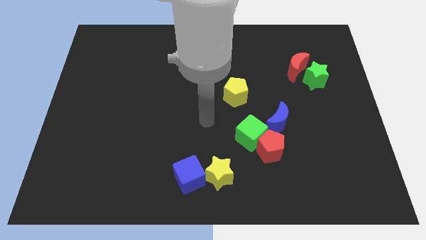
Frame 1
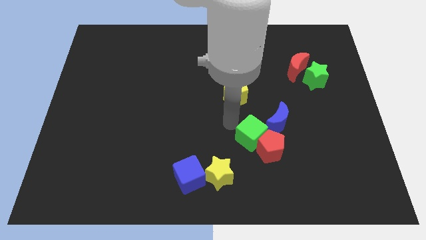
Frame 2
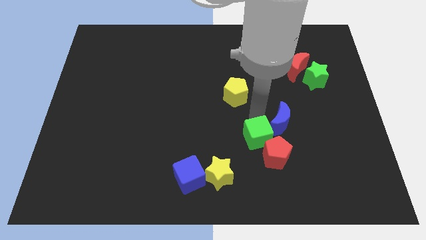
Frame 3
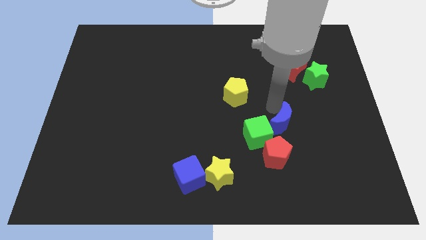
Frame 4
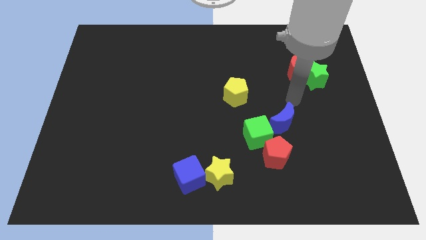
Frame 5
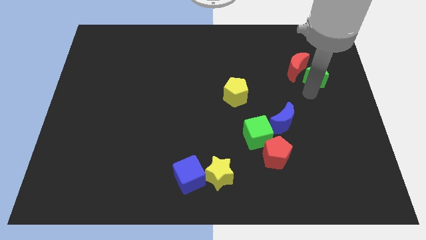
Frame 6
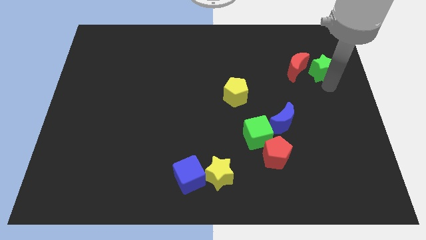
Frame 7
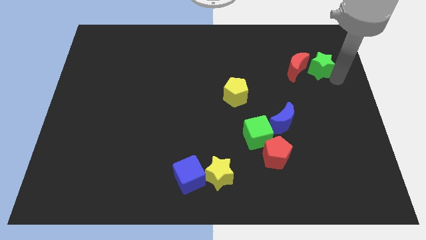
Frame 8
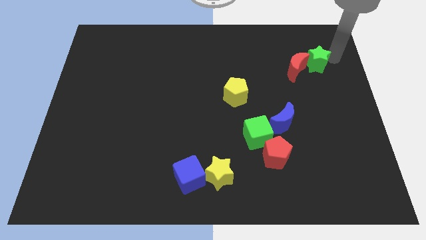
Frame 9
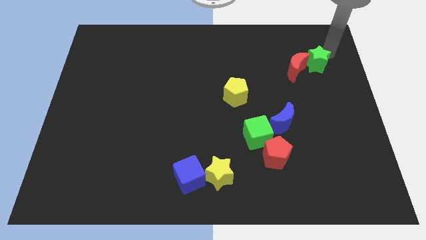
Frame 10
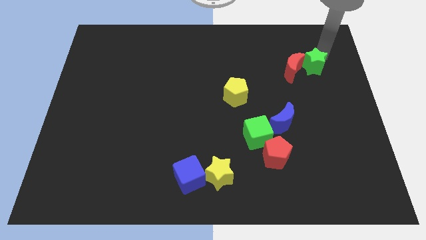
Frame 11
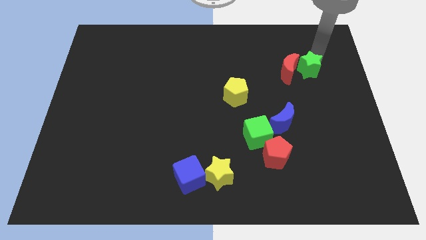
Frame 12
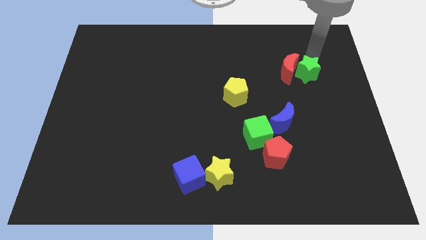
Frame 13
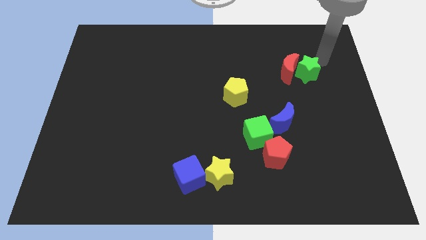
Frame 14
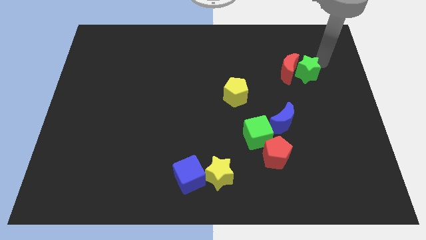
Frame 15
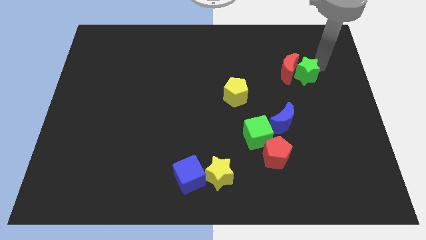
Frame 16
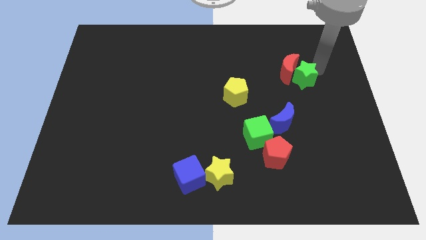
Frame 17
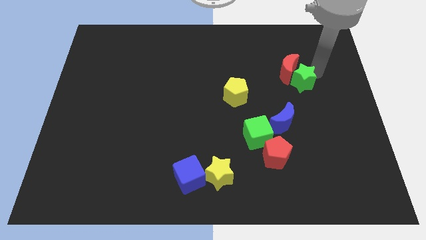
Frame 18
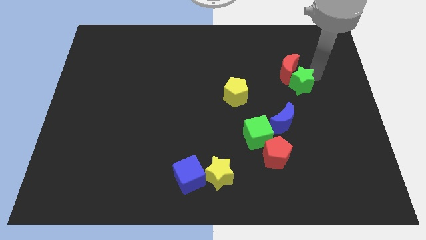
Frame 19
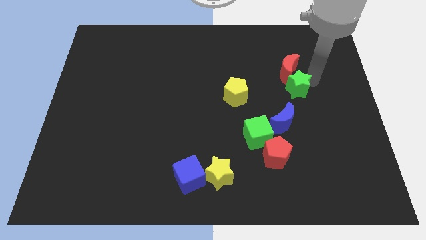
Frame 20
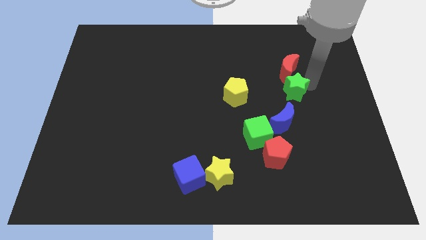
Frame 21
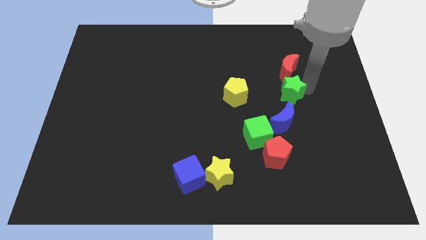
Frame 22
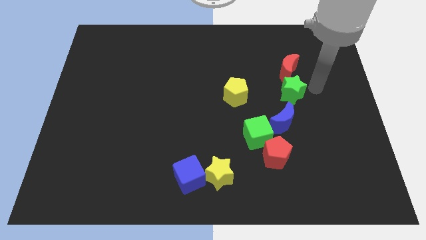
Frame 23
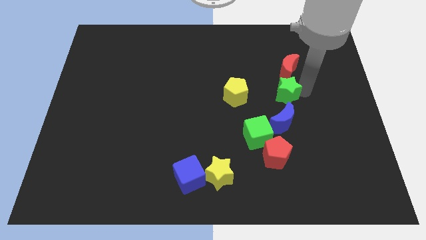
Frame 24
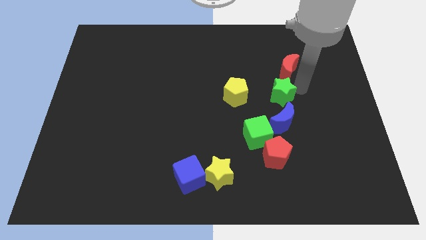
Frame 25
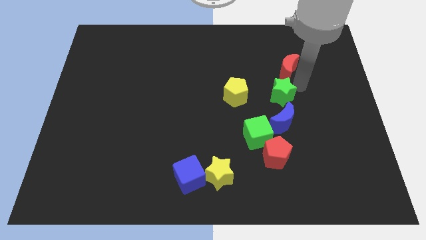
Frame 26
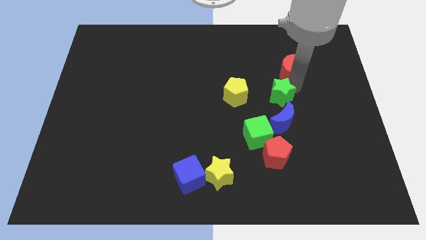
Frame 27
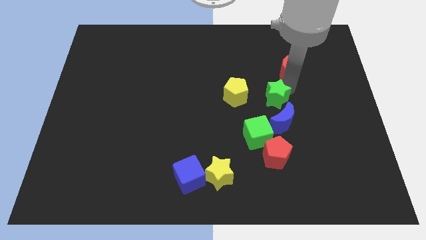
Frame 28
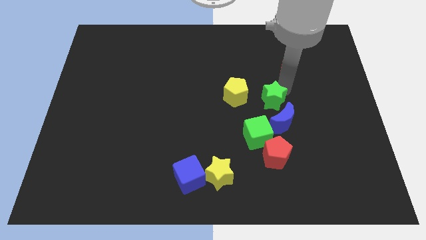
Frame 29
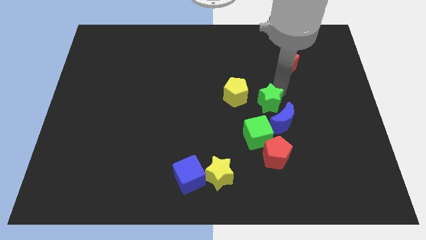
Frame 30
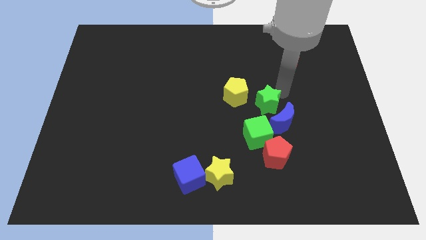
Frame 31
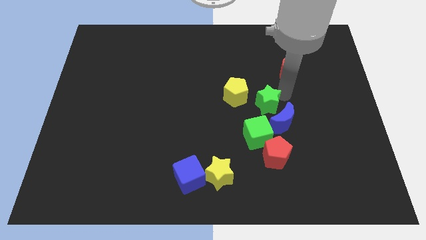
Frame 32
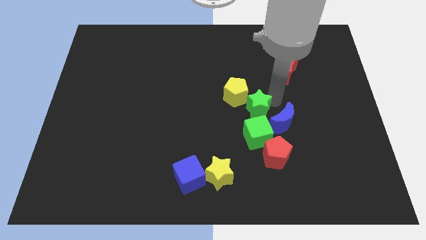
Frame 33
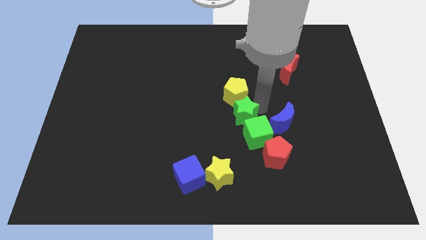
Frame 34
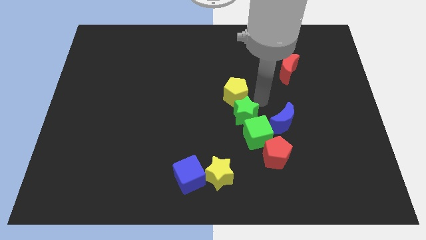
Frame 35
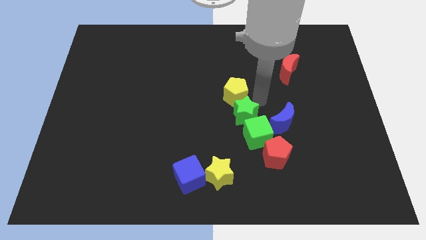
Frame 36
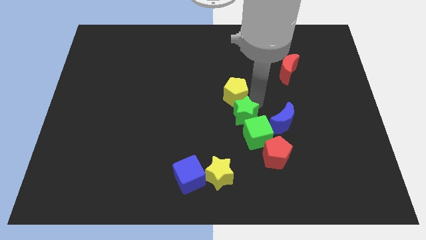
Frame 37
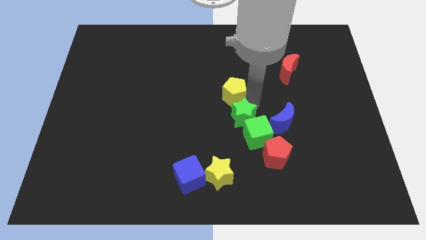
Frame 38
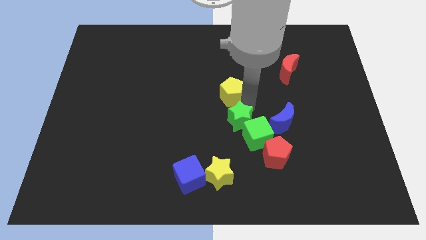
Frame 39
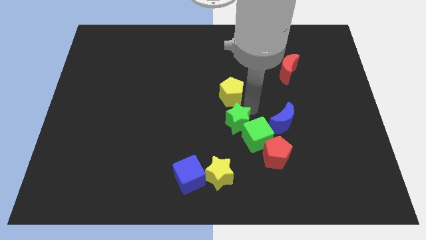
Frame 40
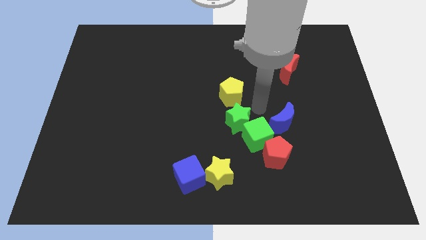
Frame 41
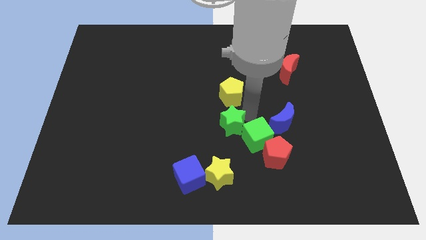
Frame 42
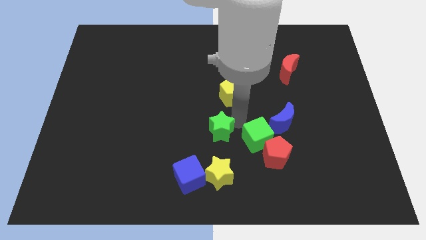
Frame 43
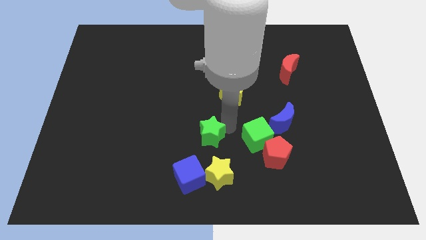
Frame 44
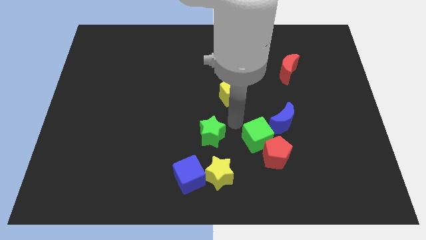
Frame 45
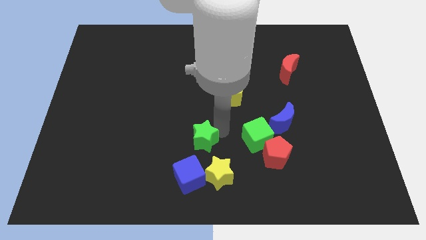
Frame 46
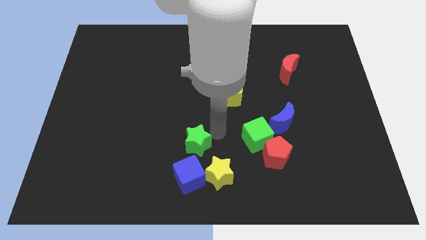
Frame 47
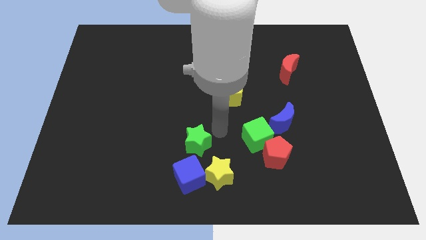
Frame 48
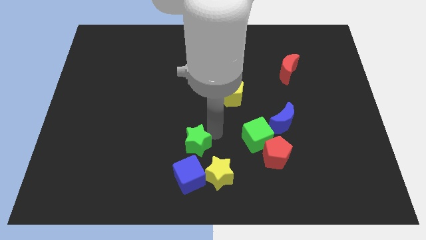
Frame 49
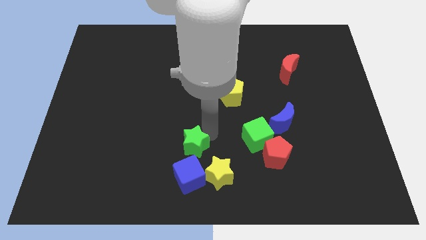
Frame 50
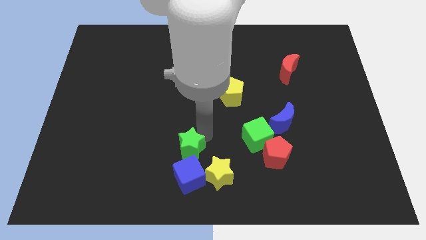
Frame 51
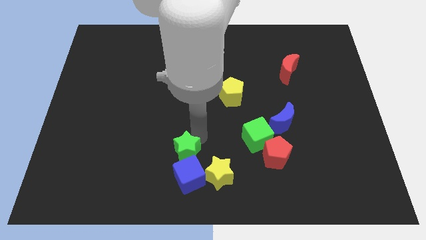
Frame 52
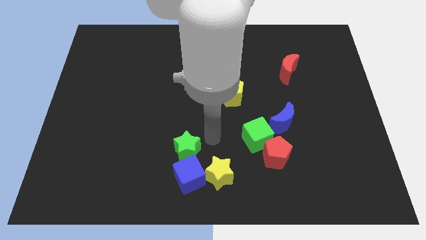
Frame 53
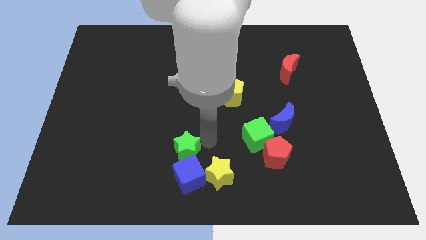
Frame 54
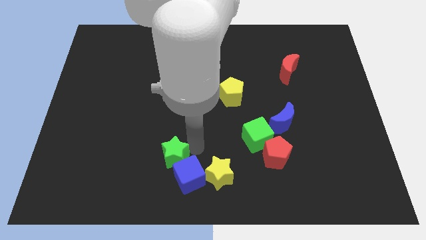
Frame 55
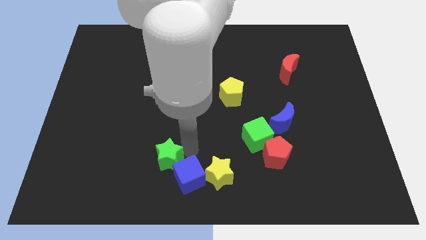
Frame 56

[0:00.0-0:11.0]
put the green star just left of the blue cube

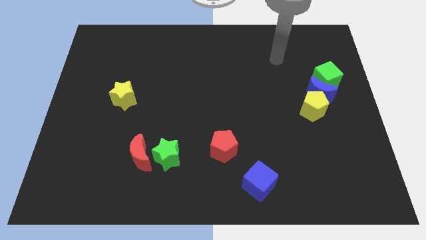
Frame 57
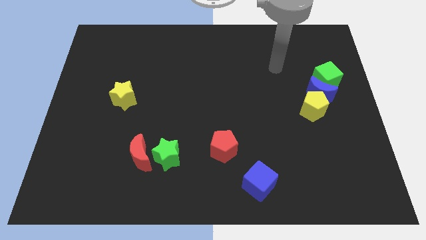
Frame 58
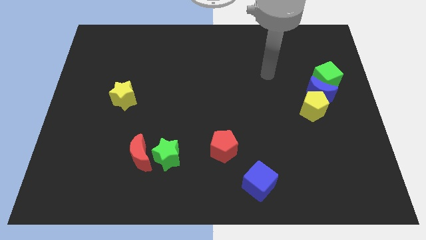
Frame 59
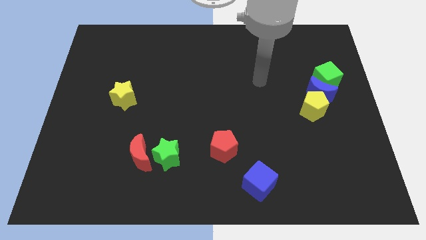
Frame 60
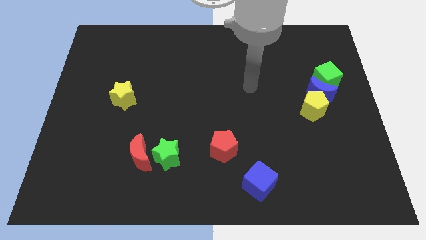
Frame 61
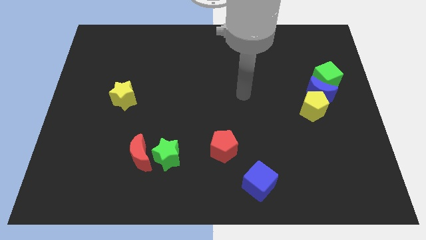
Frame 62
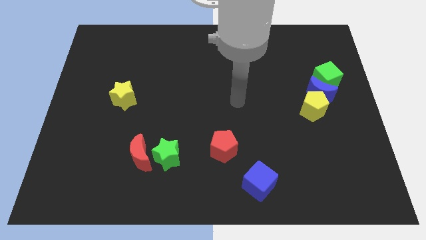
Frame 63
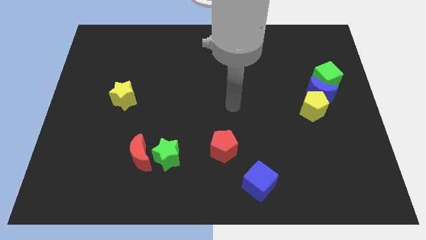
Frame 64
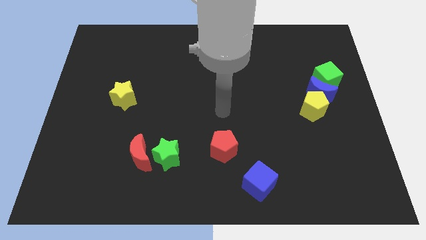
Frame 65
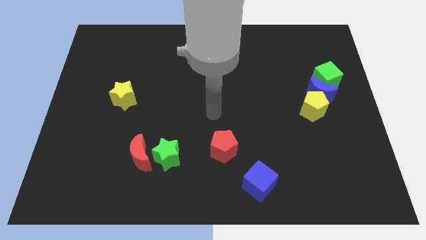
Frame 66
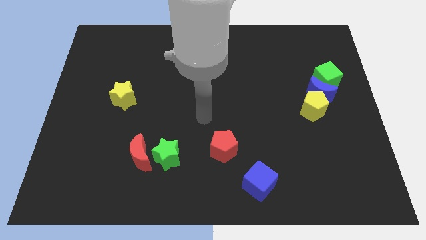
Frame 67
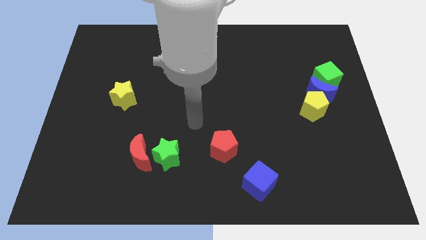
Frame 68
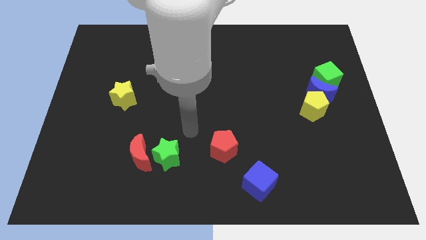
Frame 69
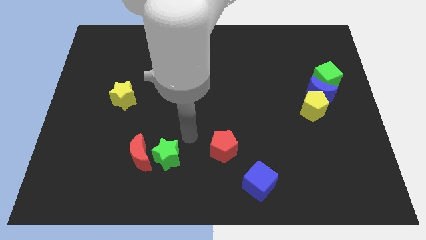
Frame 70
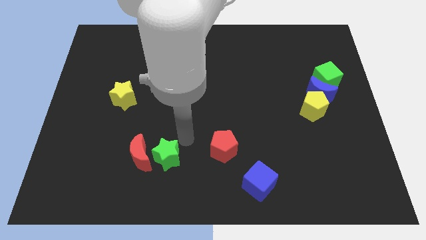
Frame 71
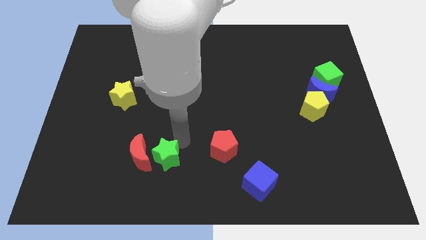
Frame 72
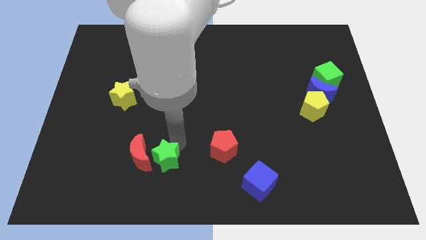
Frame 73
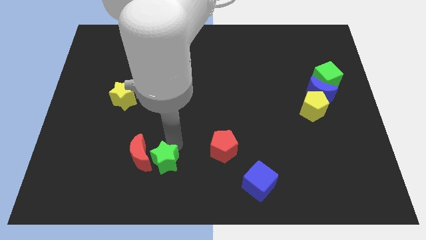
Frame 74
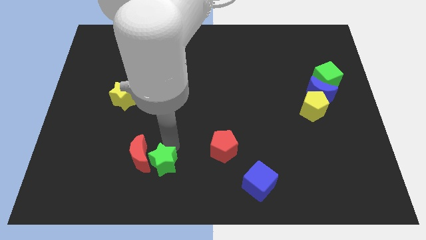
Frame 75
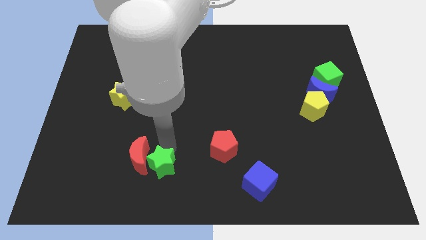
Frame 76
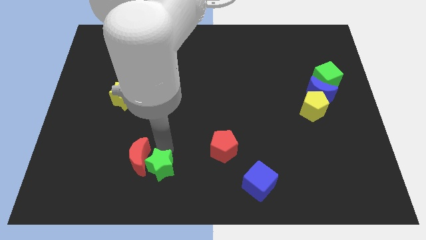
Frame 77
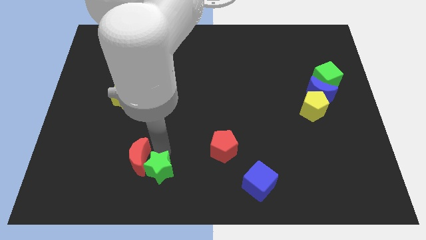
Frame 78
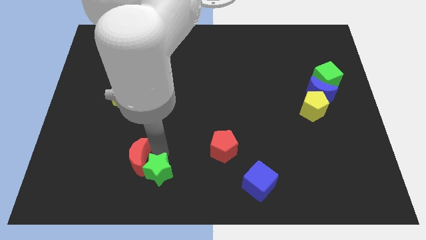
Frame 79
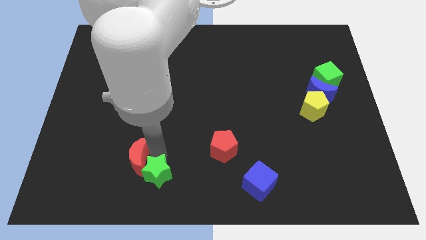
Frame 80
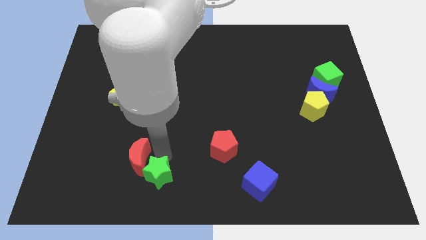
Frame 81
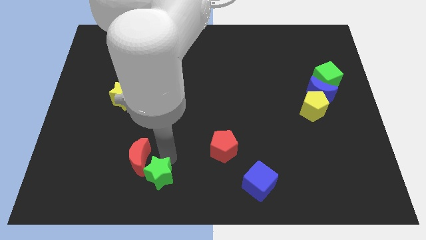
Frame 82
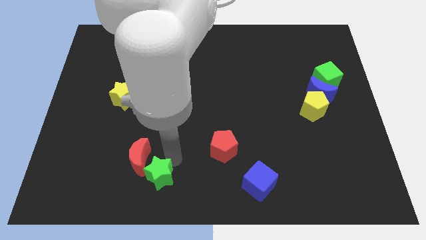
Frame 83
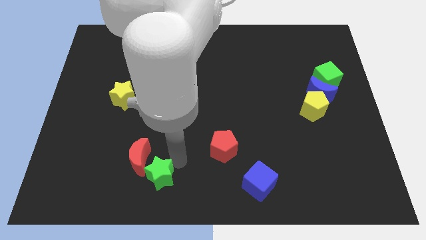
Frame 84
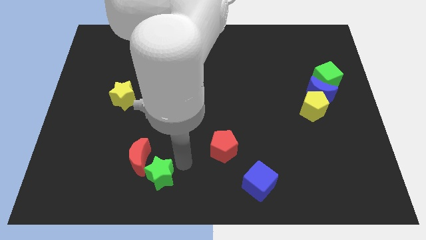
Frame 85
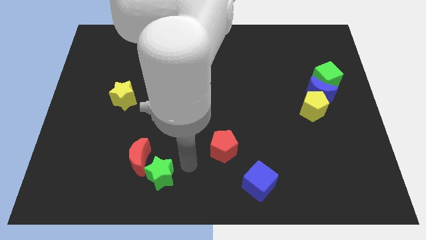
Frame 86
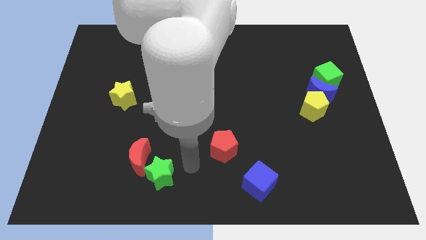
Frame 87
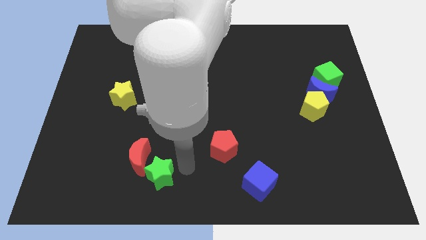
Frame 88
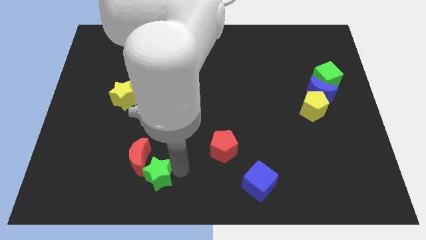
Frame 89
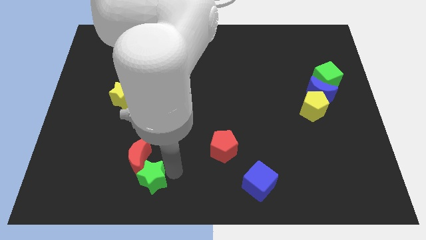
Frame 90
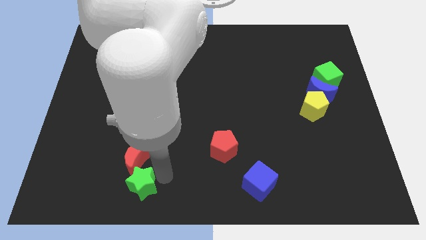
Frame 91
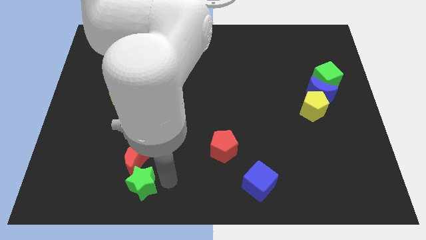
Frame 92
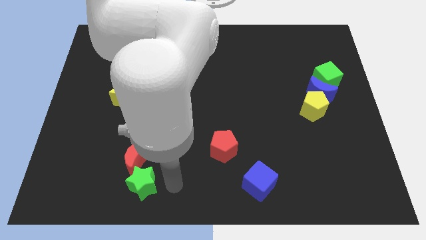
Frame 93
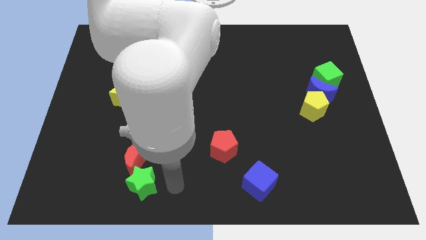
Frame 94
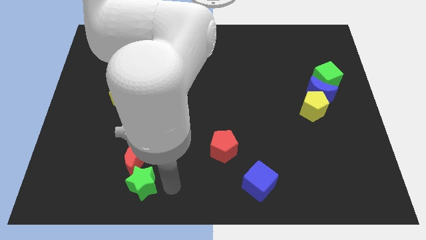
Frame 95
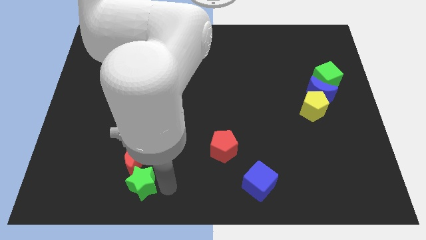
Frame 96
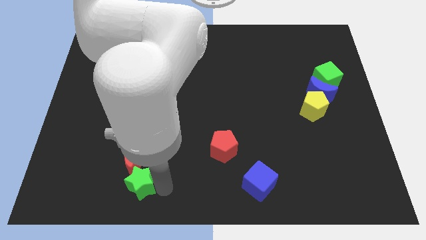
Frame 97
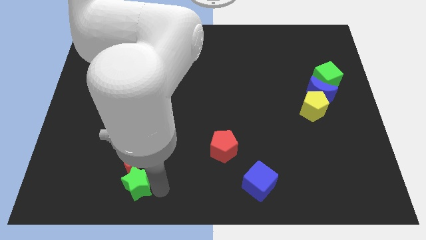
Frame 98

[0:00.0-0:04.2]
put the green star diagonally down and to the left of the red moon
